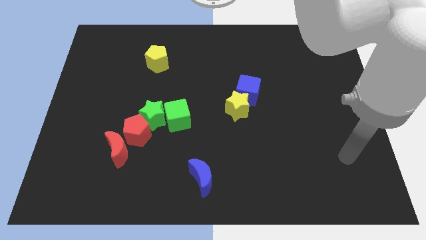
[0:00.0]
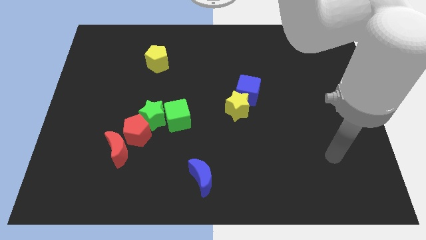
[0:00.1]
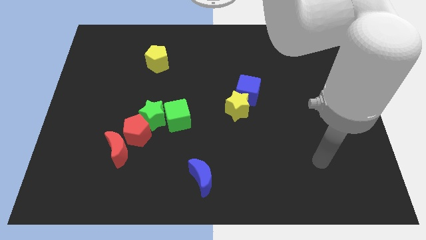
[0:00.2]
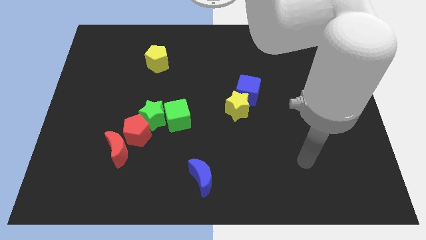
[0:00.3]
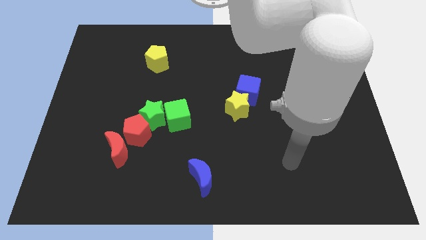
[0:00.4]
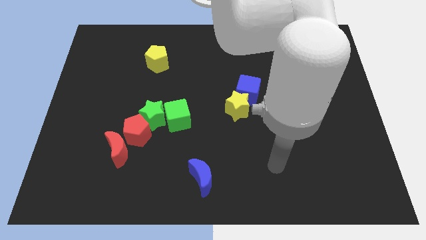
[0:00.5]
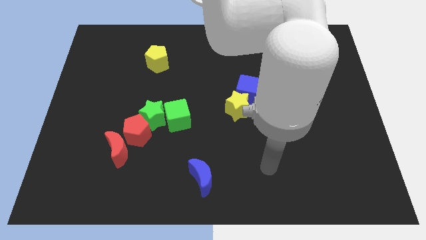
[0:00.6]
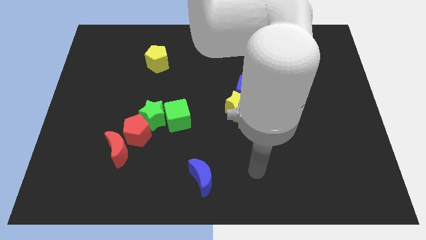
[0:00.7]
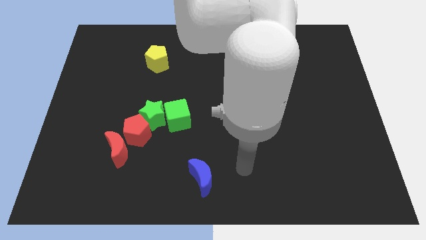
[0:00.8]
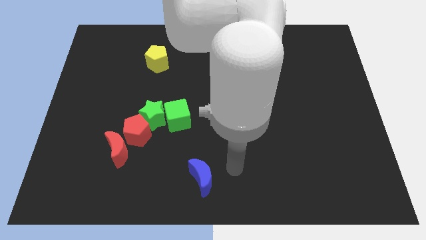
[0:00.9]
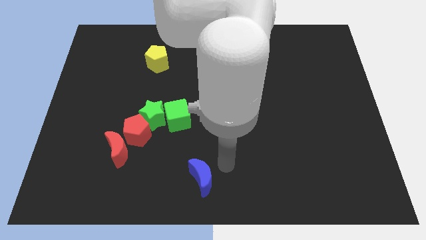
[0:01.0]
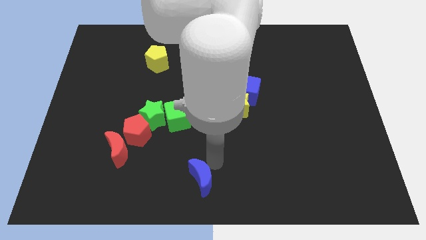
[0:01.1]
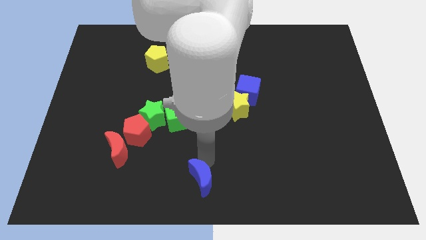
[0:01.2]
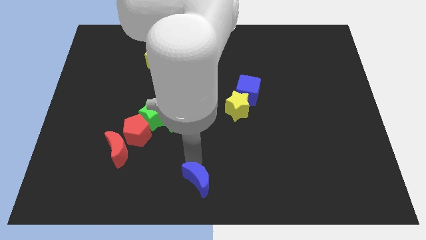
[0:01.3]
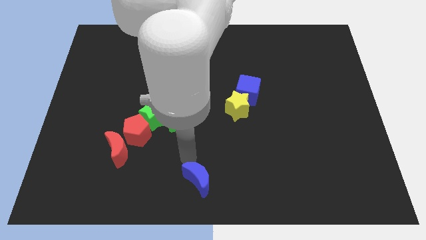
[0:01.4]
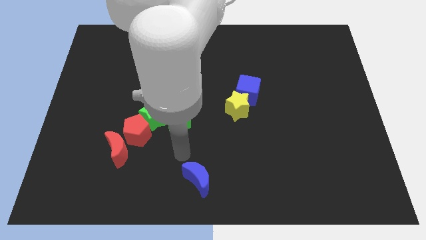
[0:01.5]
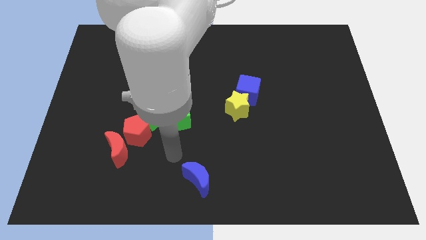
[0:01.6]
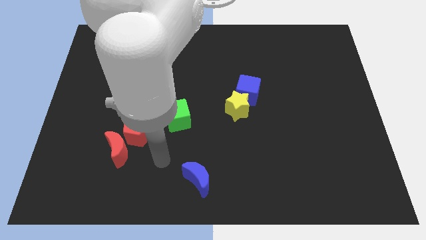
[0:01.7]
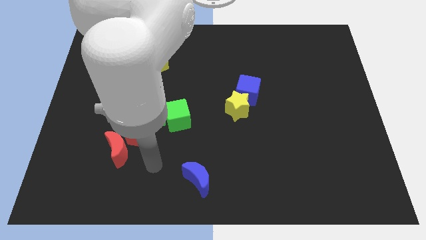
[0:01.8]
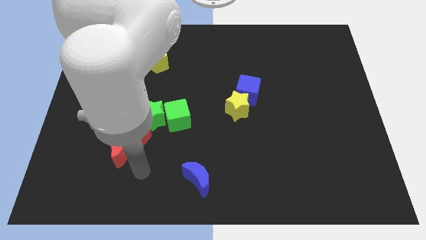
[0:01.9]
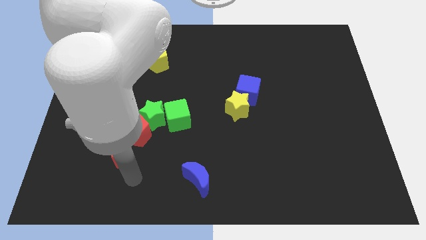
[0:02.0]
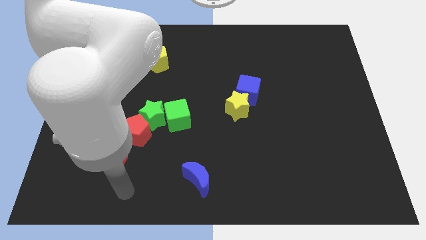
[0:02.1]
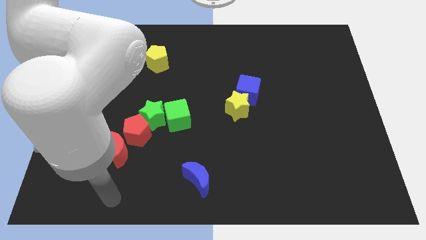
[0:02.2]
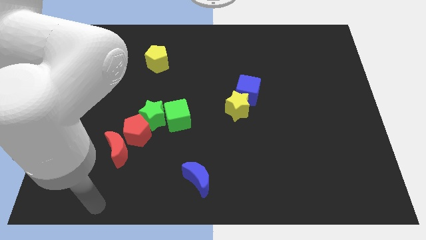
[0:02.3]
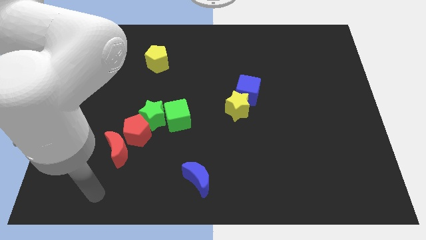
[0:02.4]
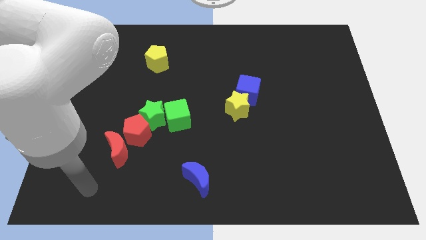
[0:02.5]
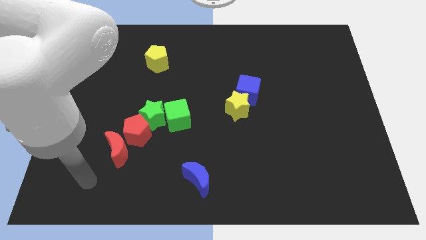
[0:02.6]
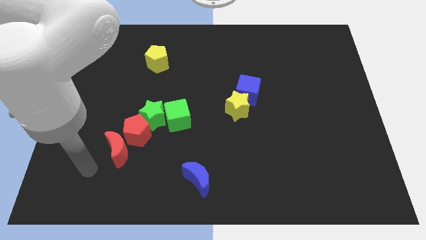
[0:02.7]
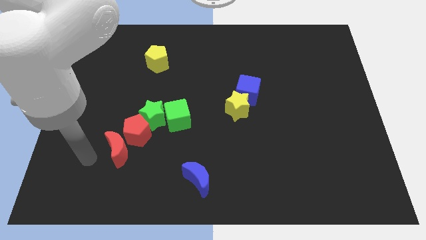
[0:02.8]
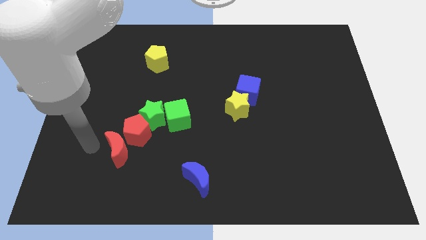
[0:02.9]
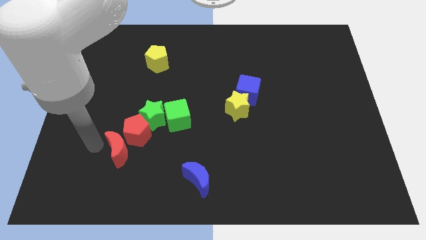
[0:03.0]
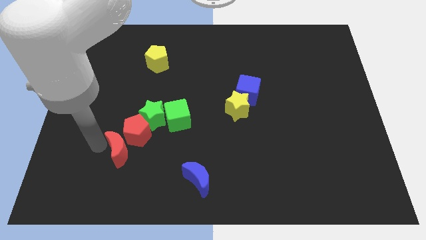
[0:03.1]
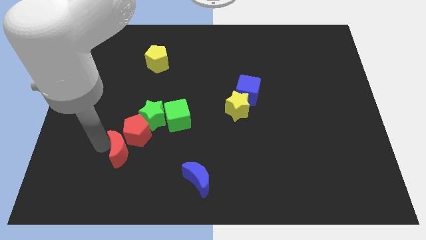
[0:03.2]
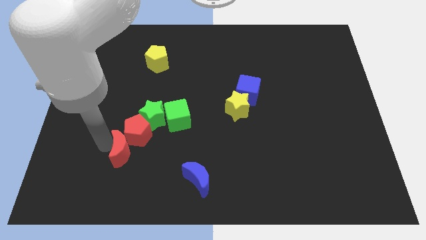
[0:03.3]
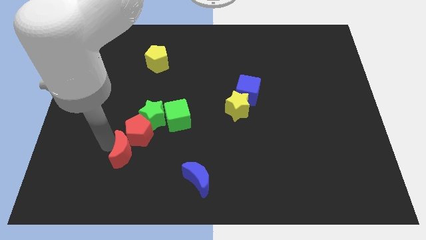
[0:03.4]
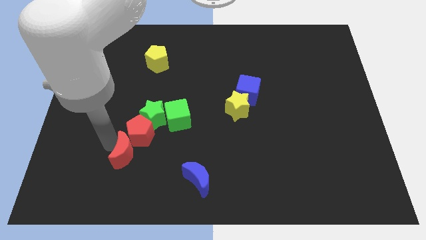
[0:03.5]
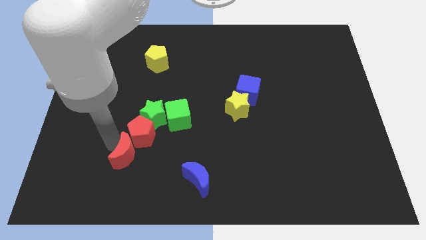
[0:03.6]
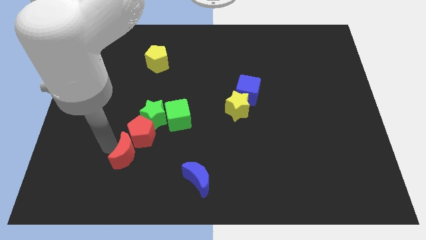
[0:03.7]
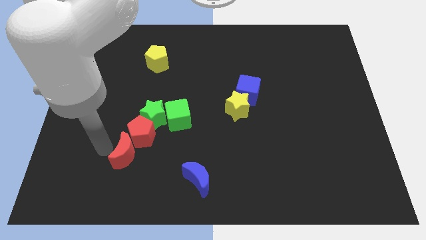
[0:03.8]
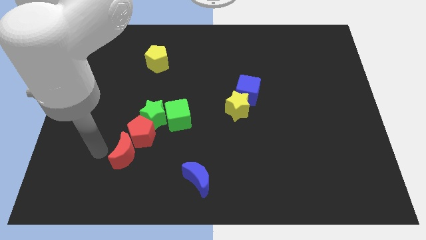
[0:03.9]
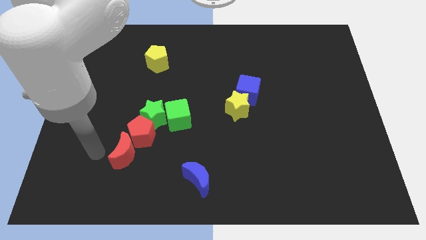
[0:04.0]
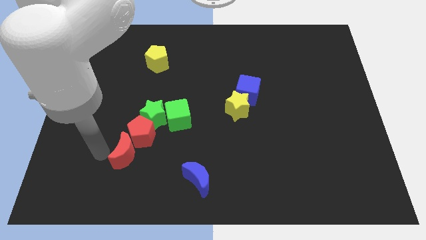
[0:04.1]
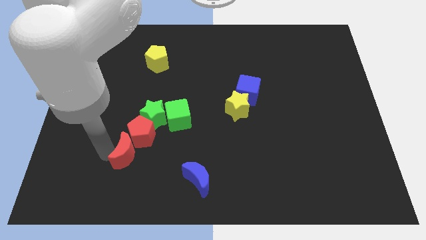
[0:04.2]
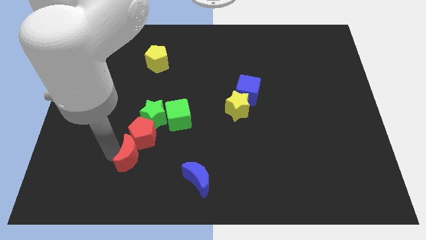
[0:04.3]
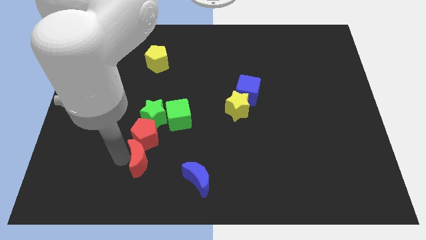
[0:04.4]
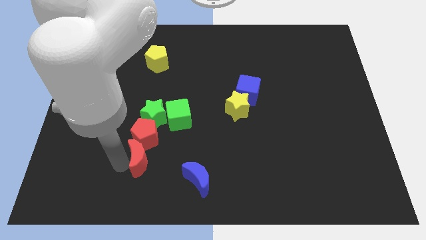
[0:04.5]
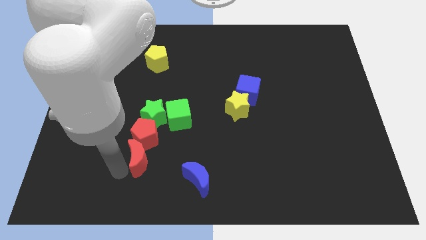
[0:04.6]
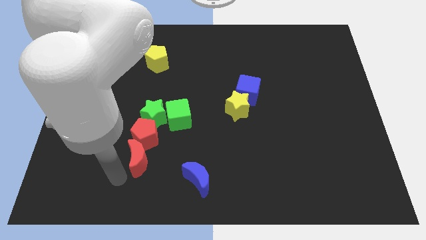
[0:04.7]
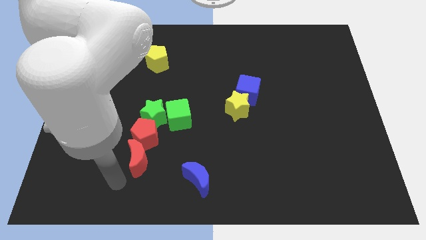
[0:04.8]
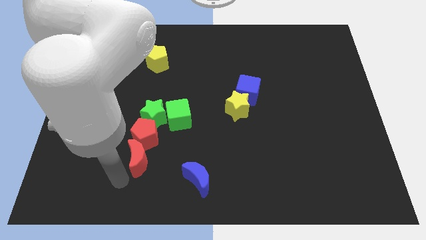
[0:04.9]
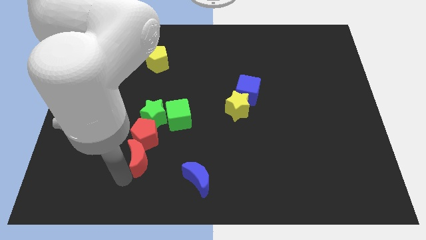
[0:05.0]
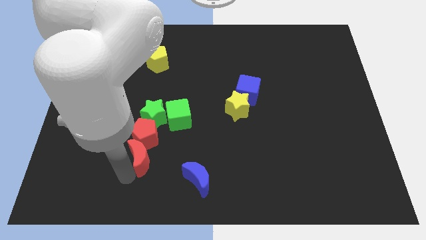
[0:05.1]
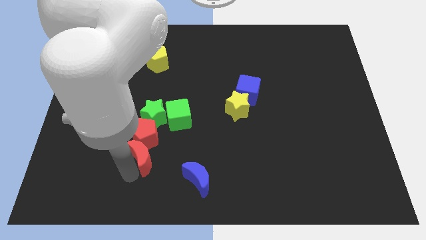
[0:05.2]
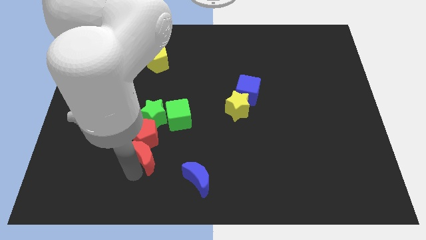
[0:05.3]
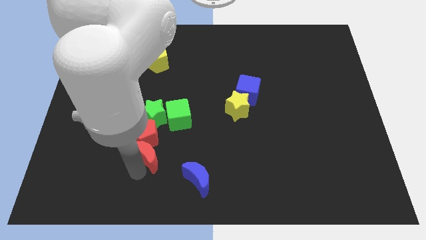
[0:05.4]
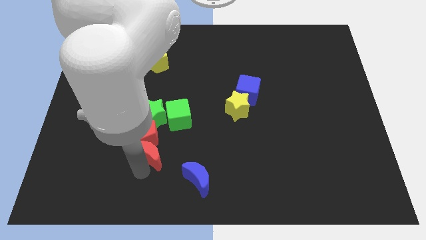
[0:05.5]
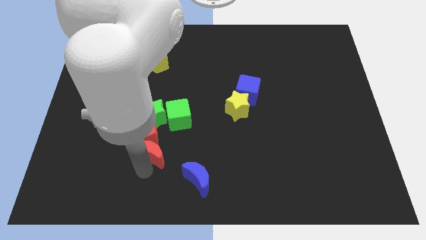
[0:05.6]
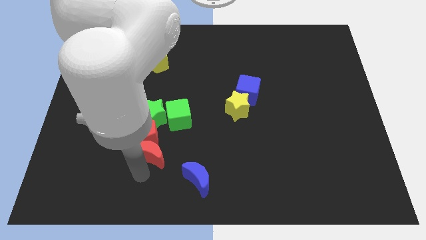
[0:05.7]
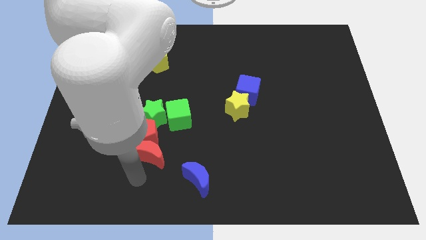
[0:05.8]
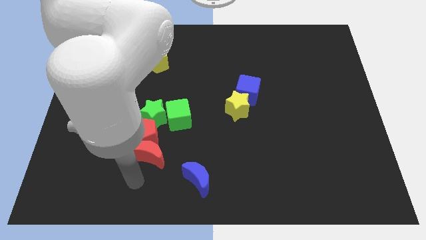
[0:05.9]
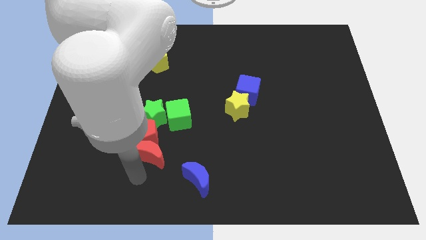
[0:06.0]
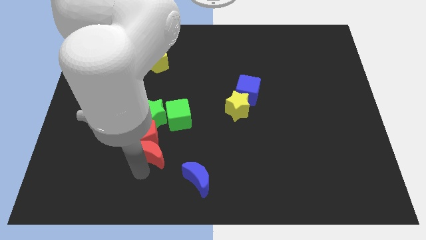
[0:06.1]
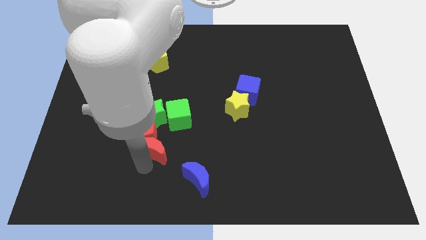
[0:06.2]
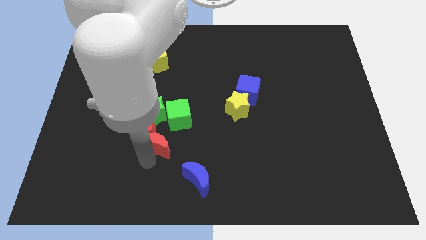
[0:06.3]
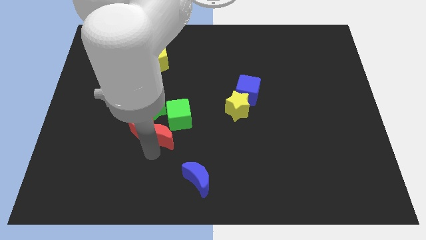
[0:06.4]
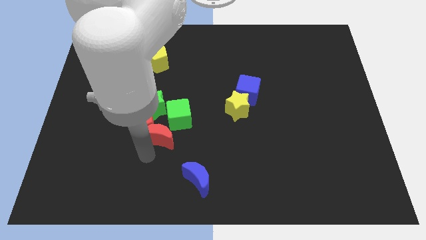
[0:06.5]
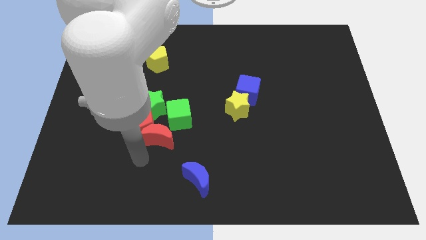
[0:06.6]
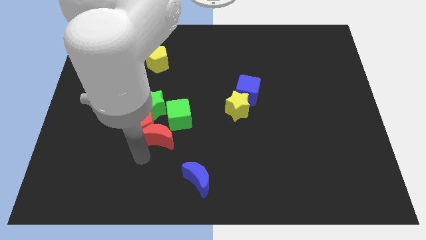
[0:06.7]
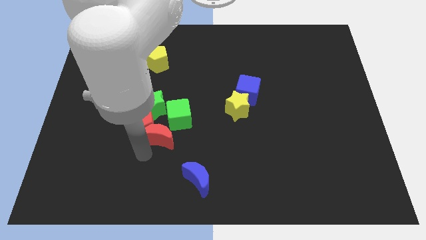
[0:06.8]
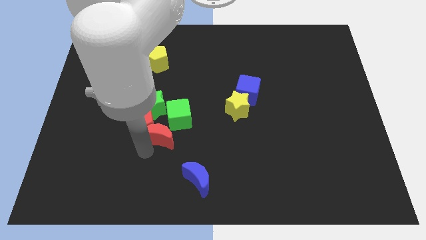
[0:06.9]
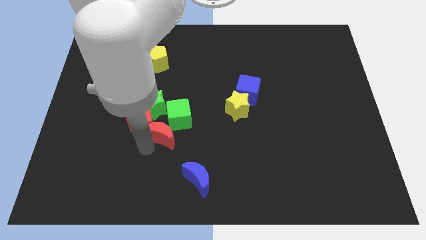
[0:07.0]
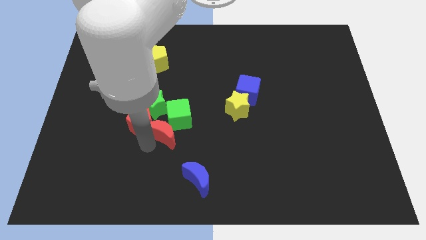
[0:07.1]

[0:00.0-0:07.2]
slide the red moon next to the green cube

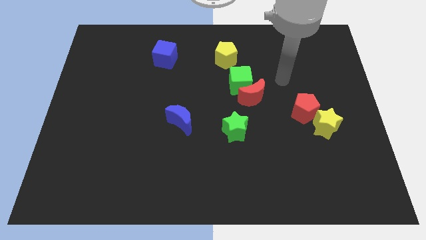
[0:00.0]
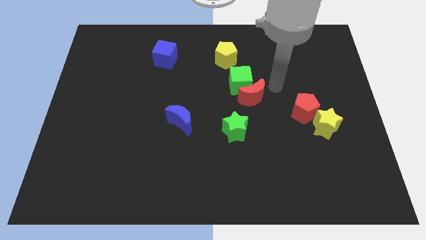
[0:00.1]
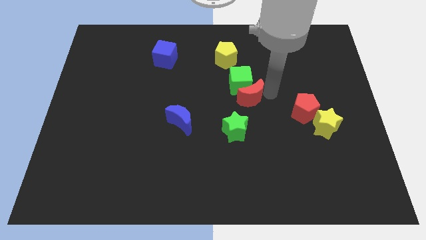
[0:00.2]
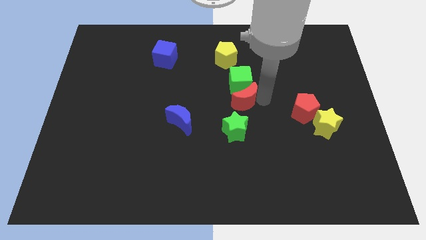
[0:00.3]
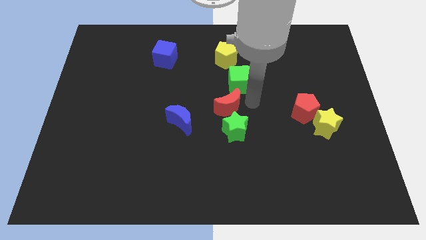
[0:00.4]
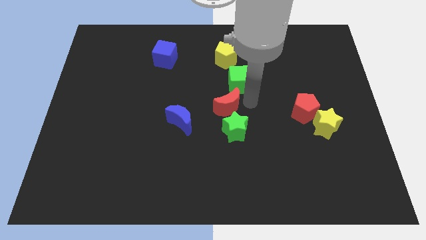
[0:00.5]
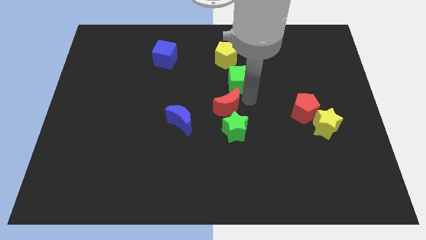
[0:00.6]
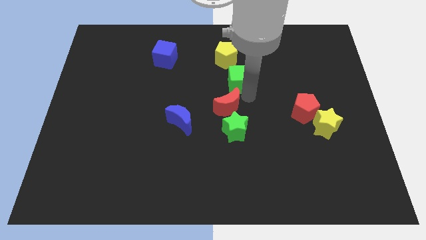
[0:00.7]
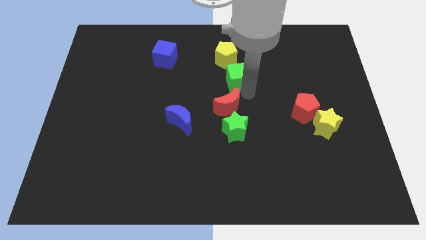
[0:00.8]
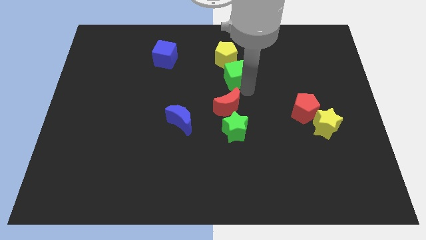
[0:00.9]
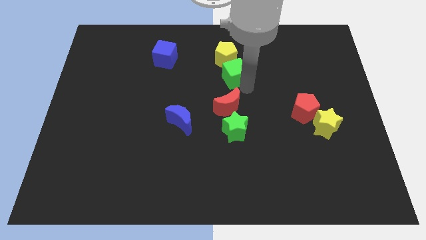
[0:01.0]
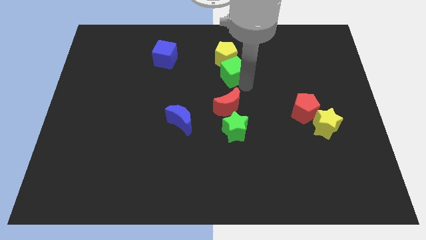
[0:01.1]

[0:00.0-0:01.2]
put the green cube close to the yellow pentagon
